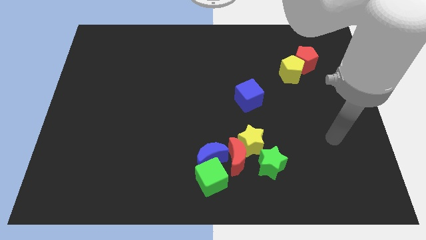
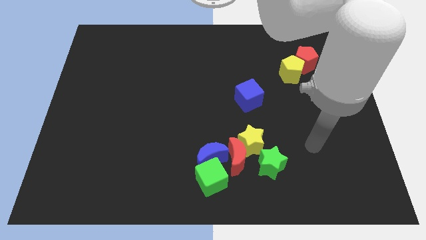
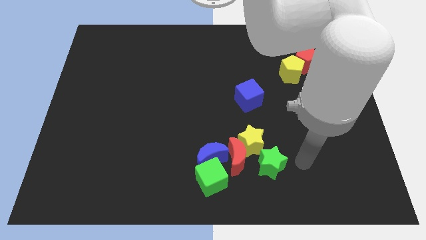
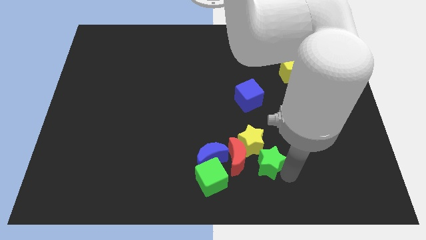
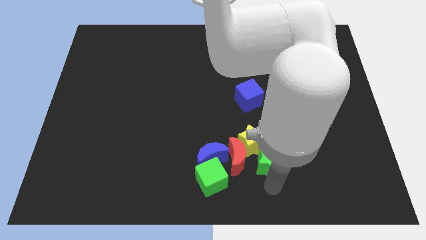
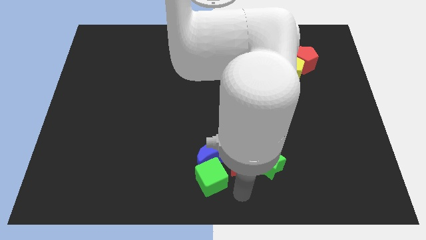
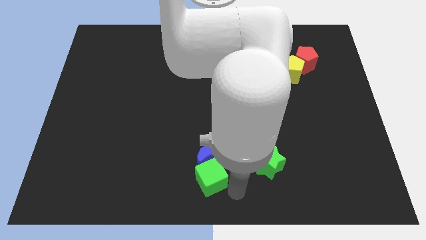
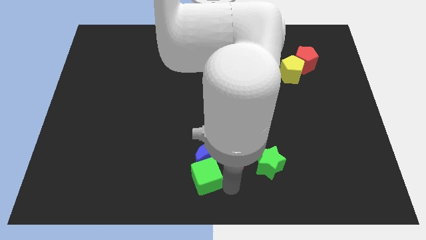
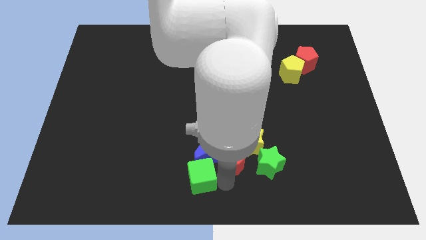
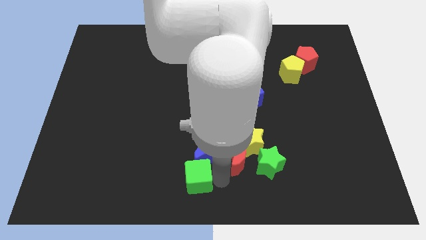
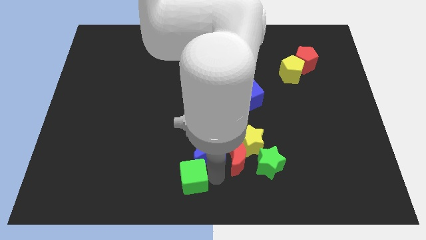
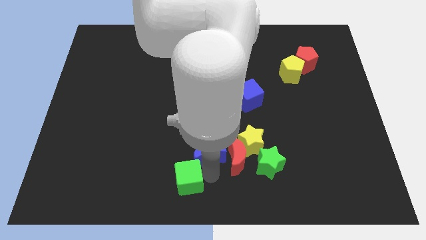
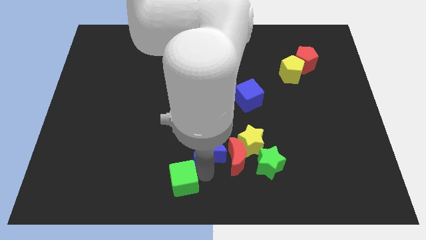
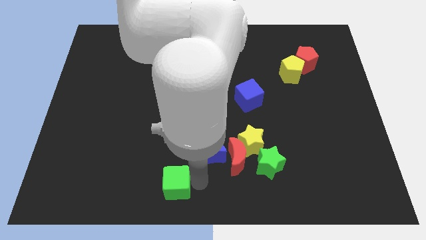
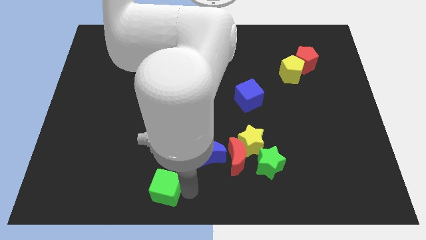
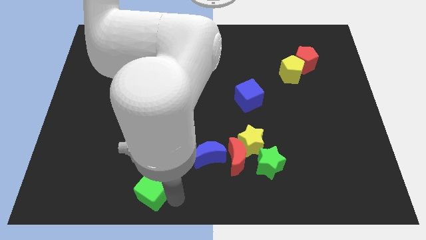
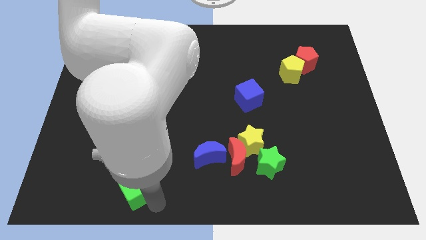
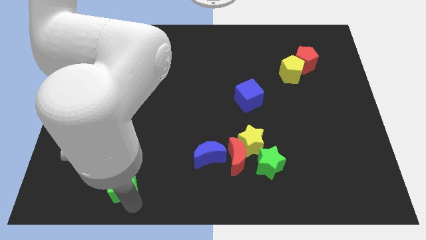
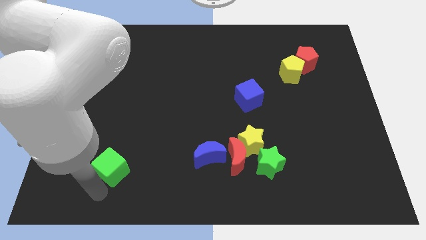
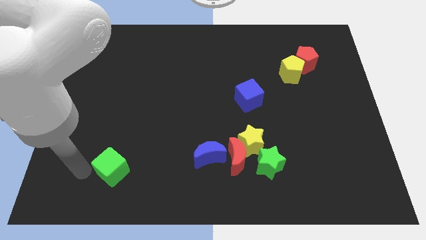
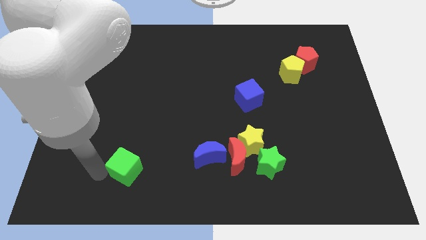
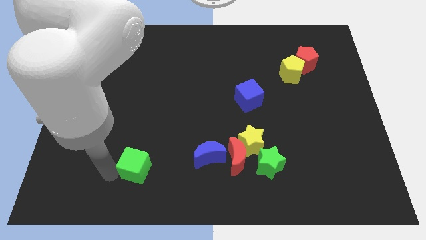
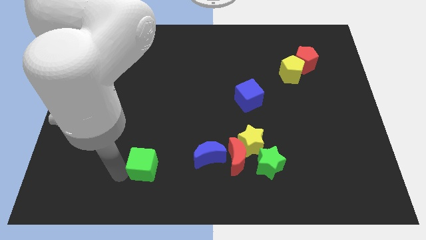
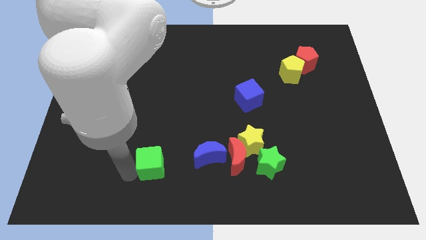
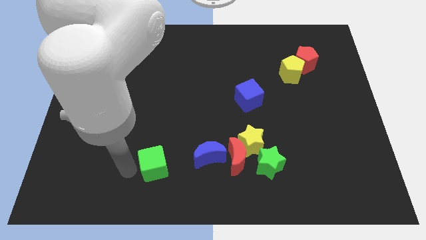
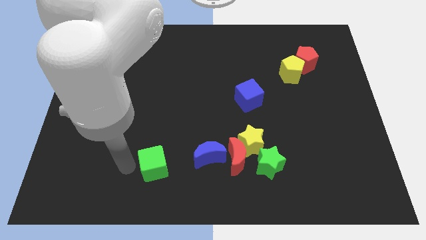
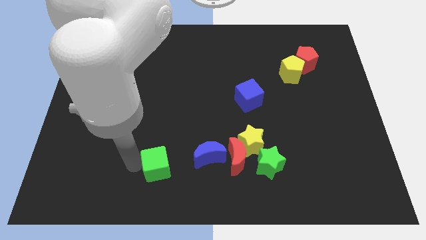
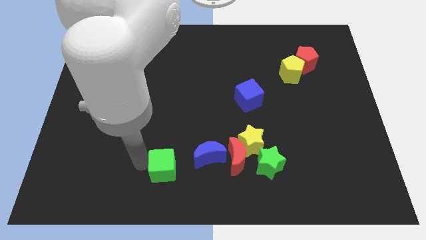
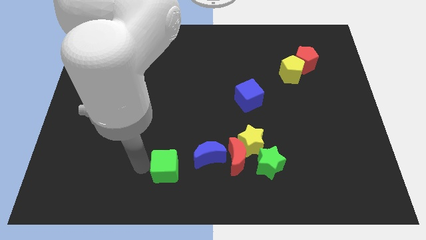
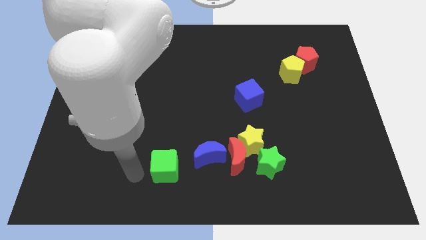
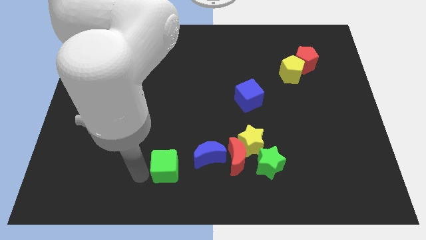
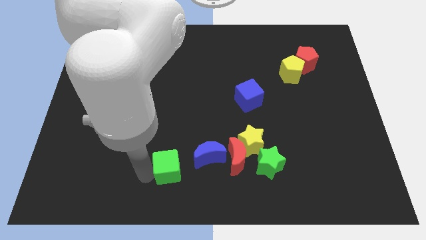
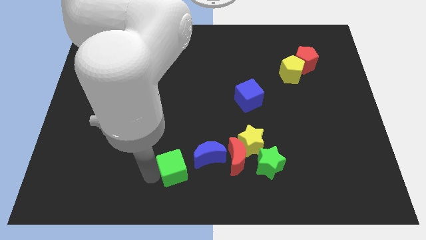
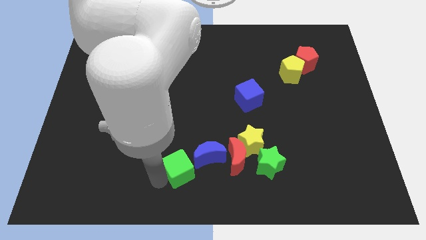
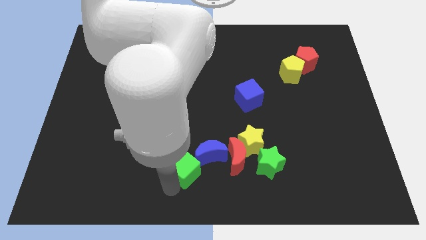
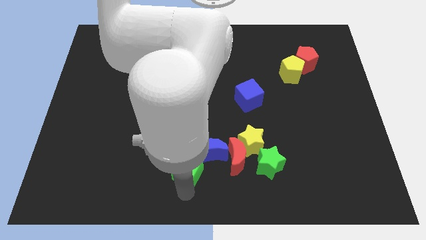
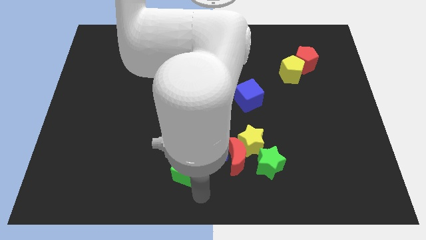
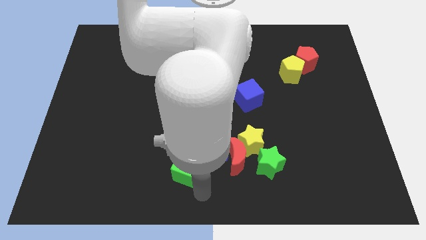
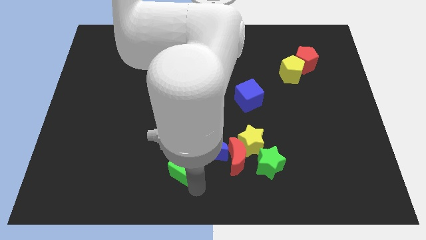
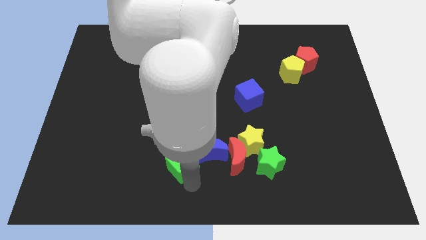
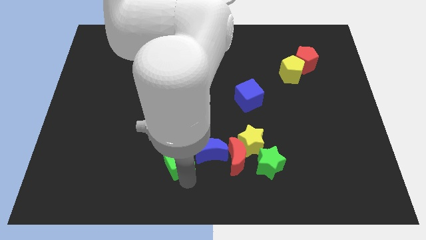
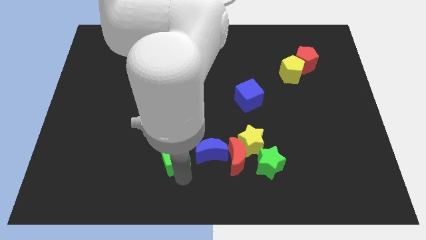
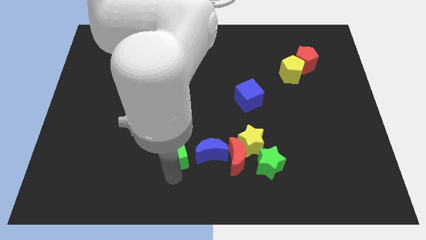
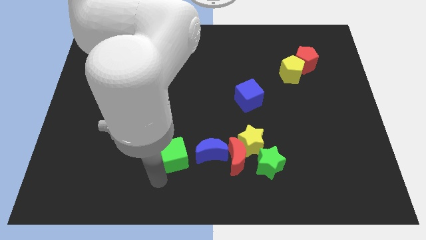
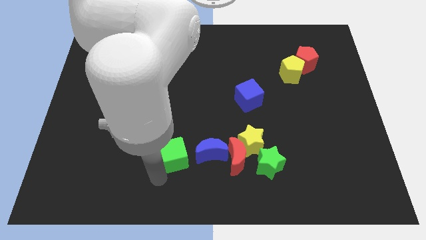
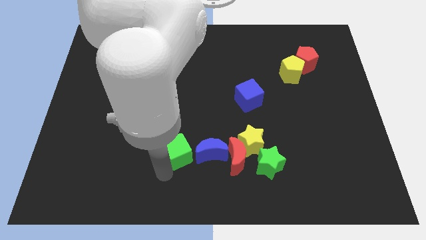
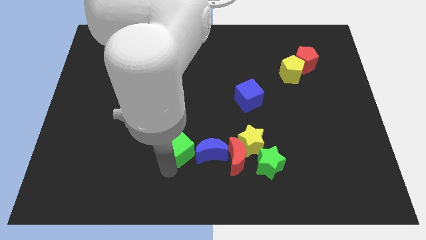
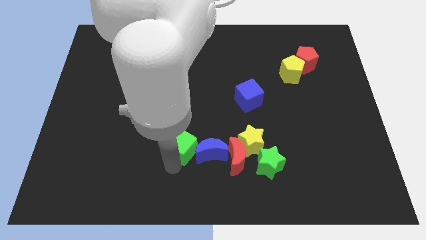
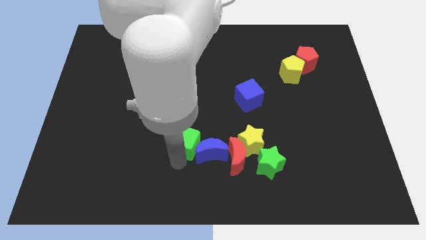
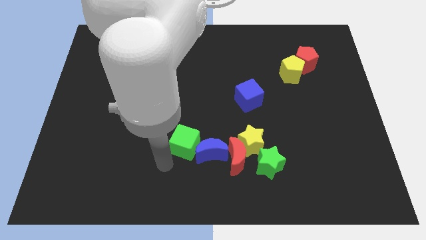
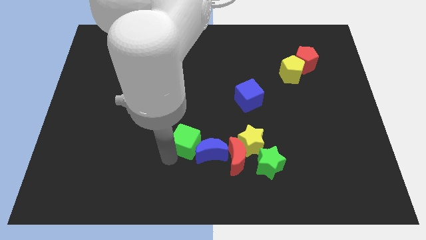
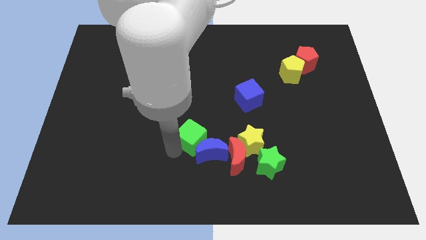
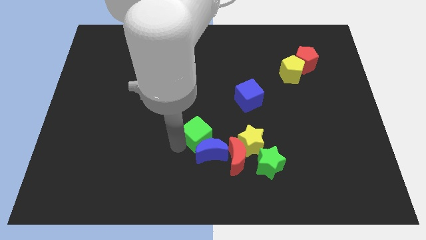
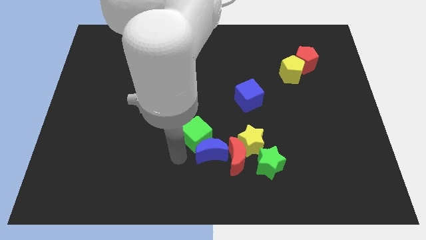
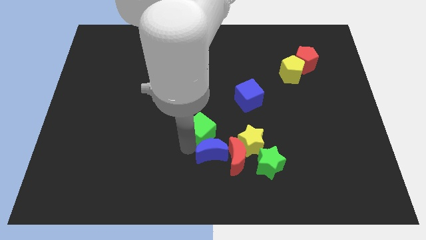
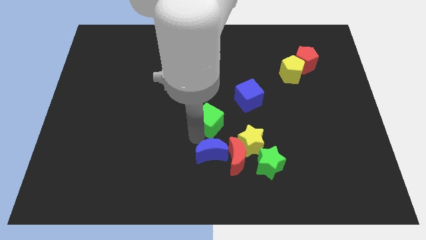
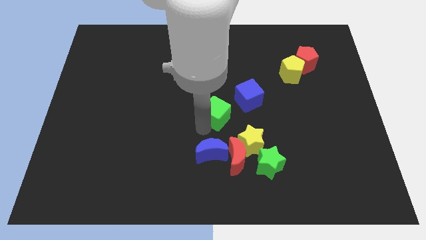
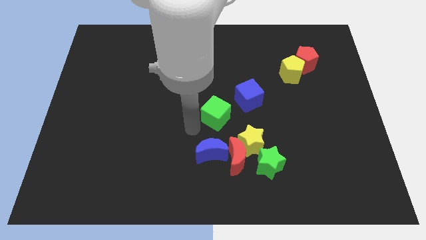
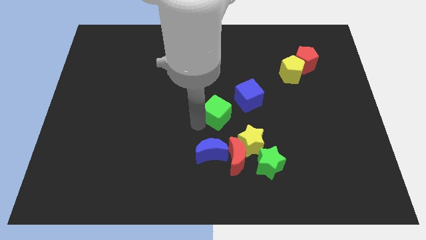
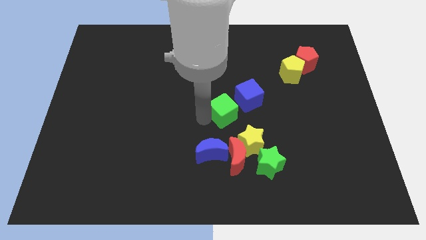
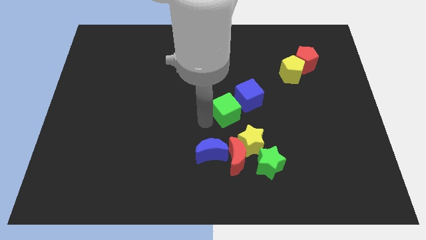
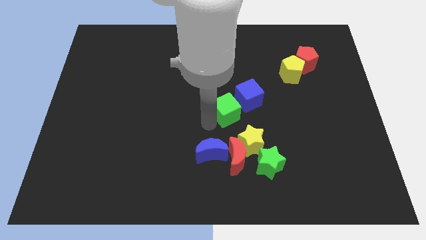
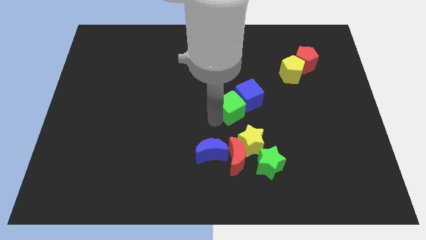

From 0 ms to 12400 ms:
slide the green cube to the blue cube

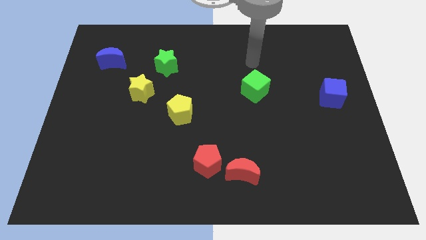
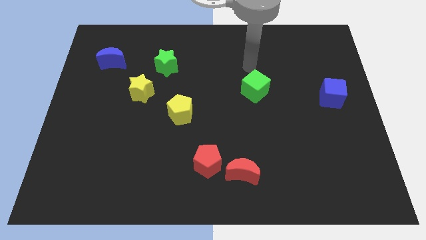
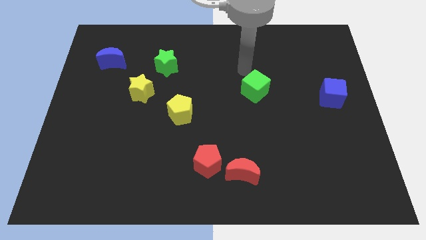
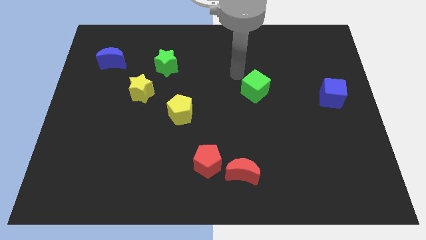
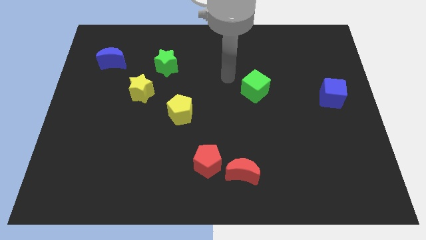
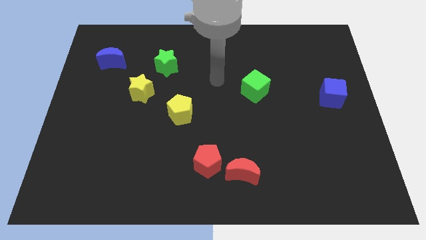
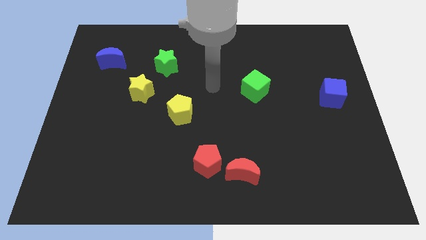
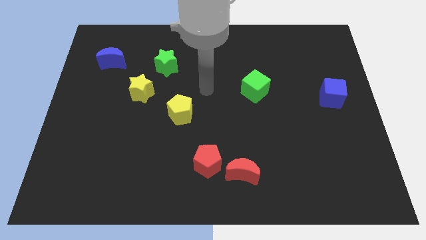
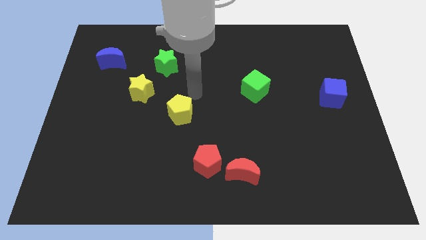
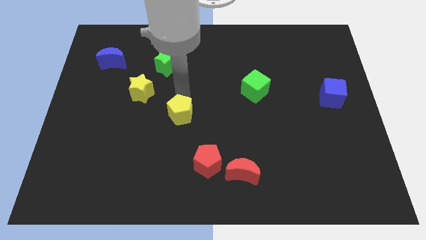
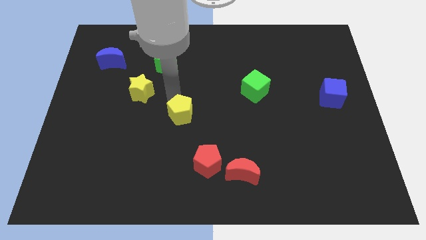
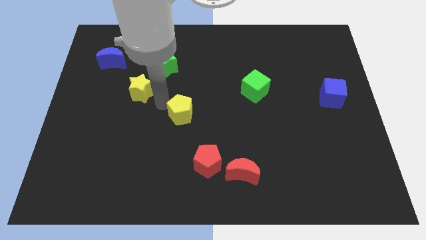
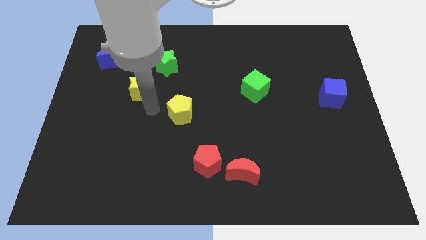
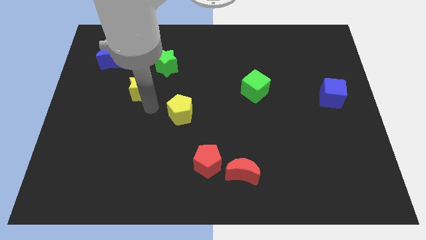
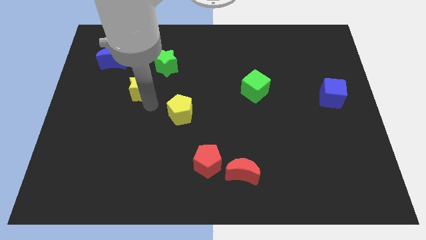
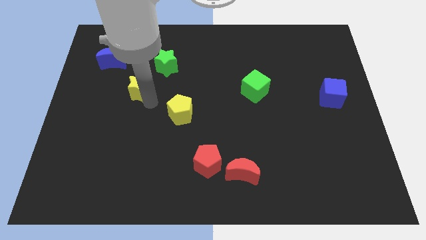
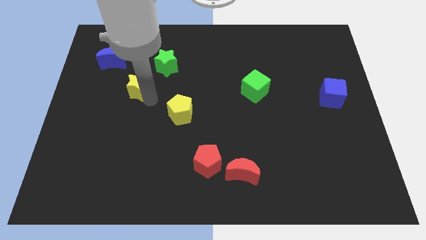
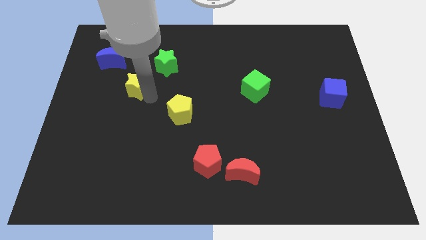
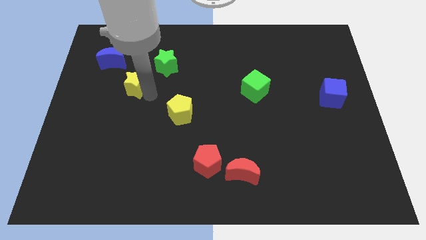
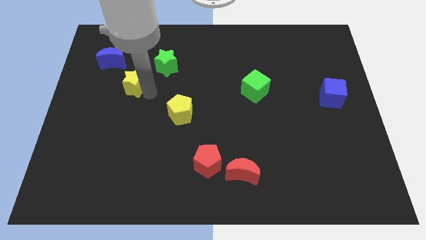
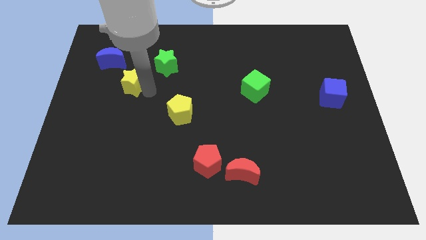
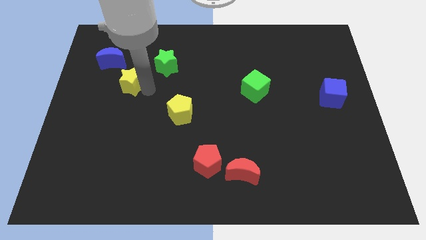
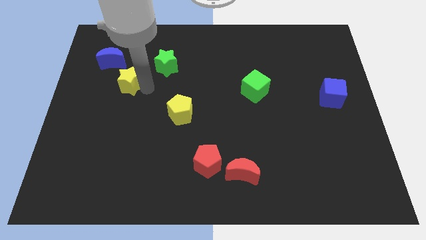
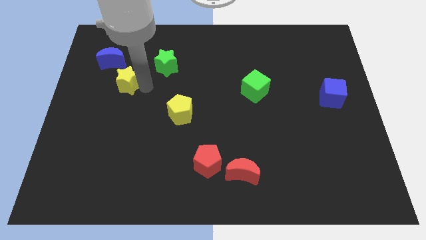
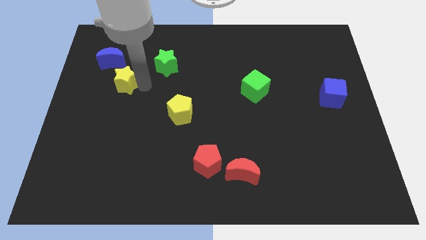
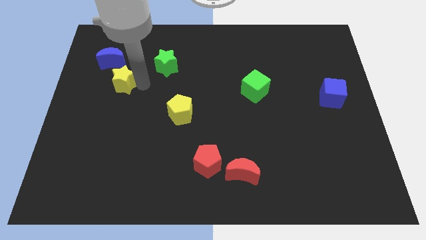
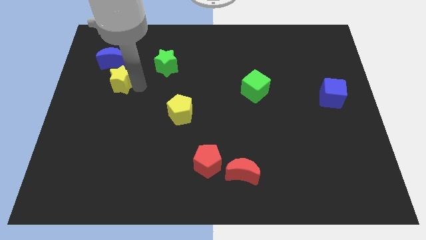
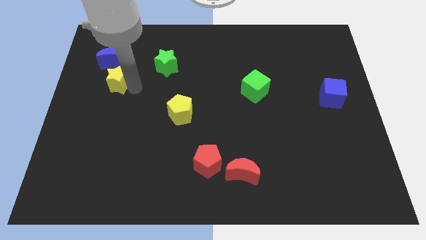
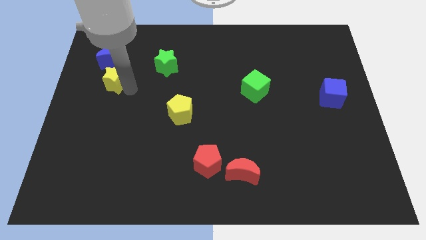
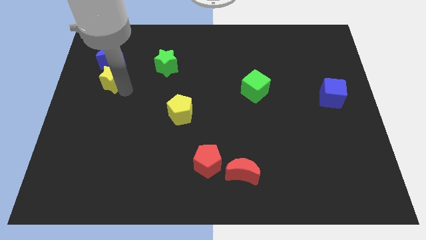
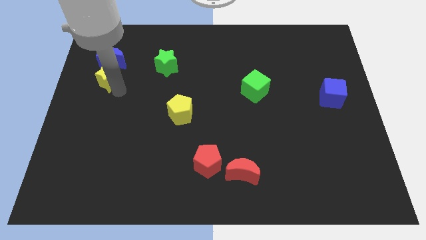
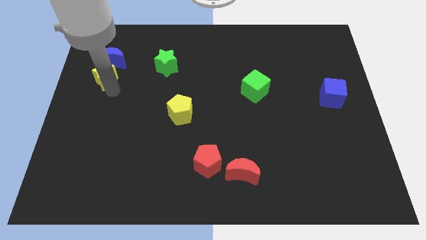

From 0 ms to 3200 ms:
move the yellow star close to the blue moon
